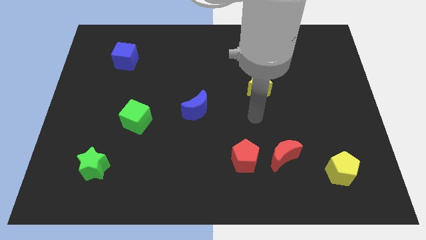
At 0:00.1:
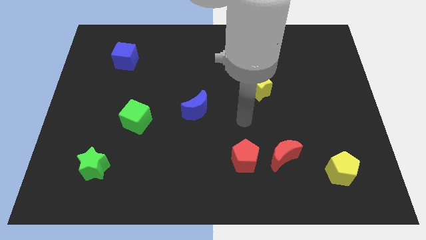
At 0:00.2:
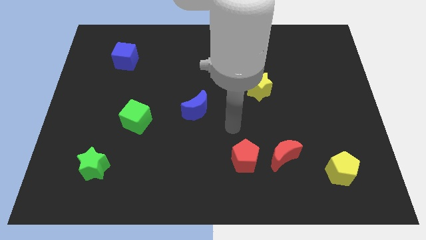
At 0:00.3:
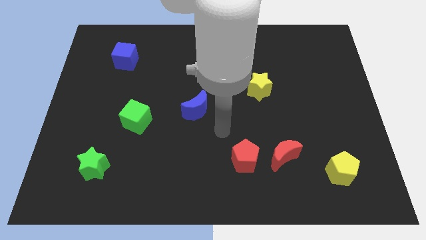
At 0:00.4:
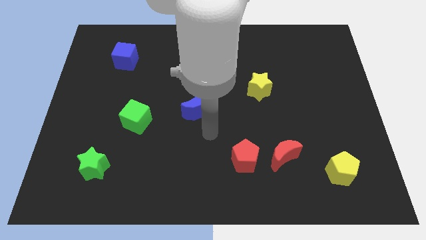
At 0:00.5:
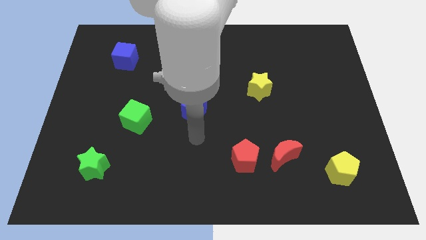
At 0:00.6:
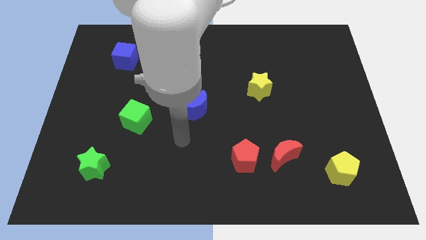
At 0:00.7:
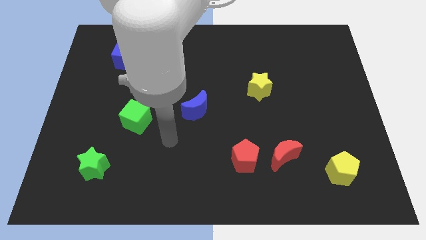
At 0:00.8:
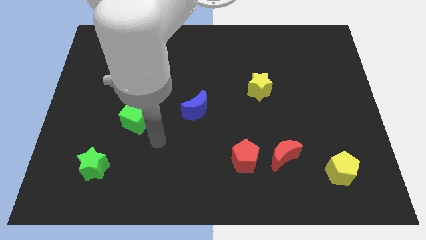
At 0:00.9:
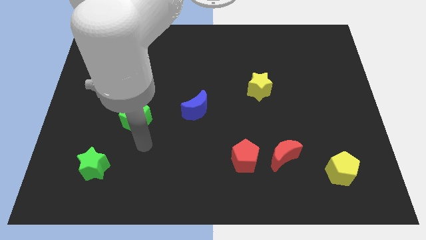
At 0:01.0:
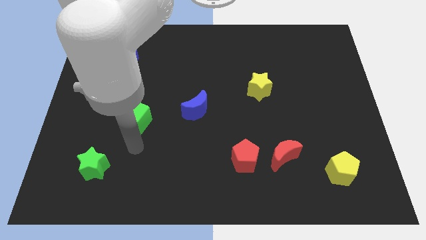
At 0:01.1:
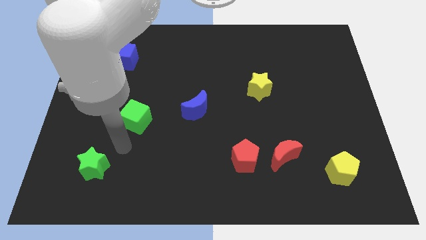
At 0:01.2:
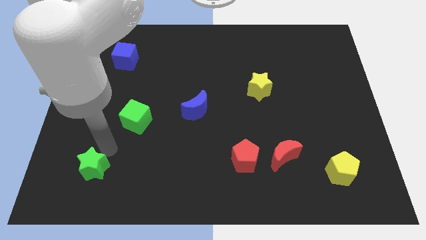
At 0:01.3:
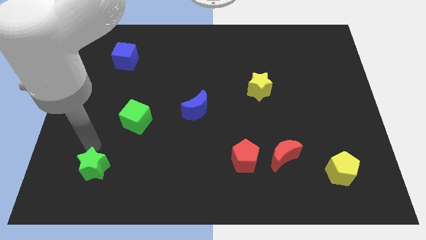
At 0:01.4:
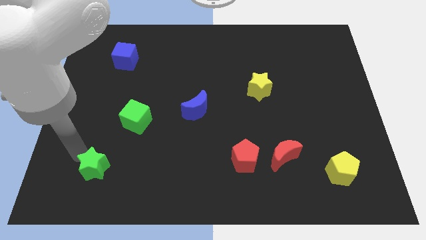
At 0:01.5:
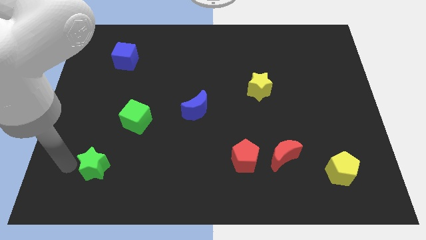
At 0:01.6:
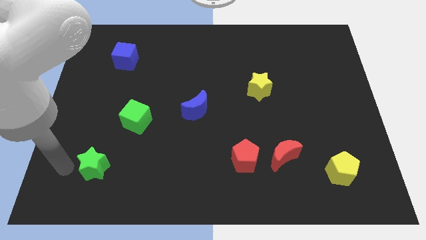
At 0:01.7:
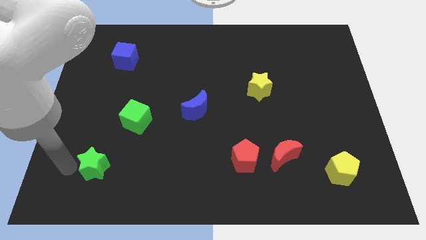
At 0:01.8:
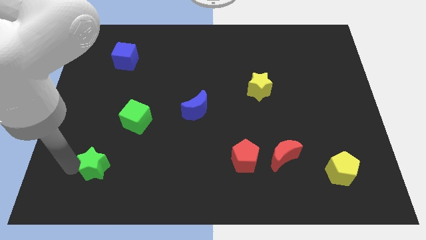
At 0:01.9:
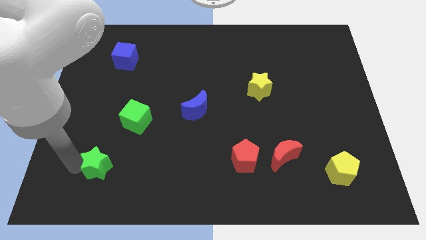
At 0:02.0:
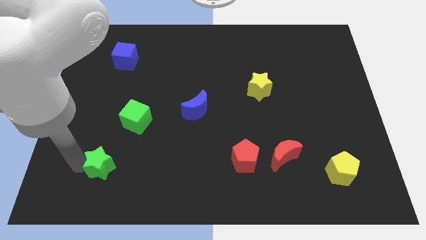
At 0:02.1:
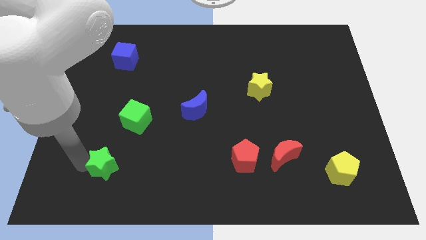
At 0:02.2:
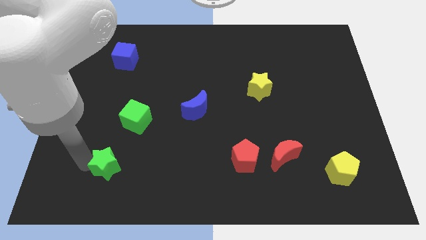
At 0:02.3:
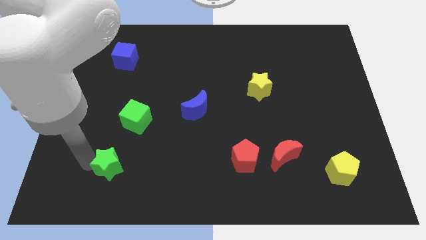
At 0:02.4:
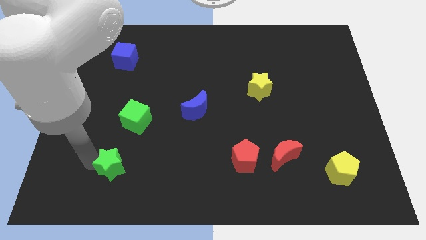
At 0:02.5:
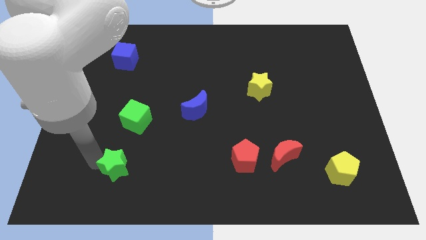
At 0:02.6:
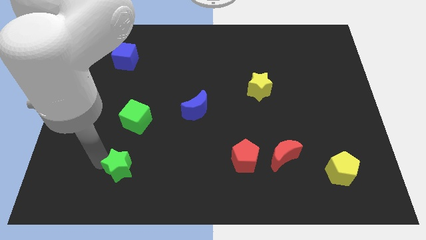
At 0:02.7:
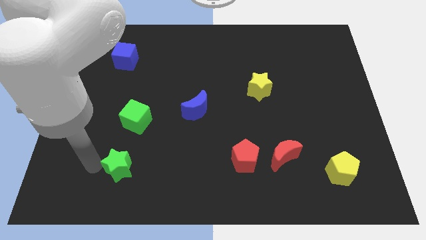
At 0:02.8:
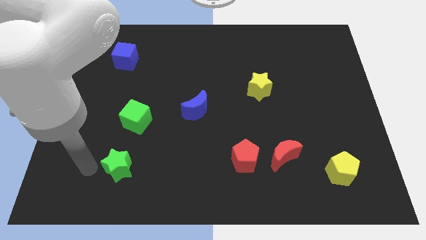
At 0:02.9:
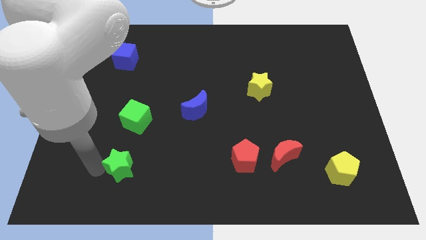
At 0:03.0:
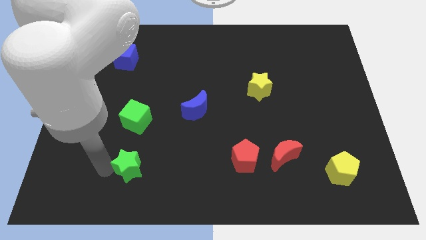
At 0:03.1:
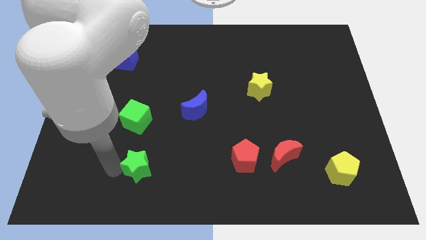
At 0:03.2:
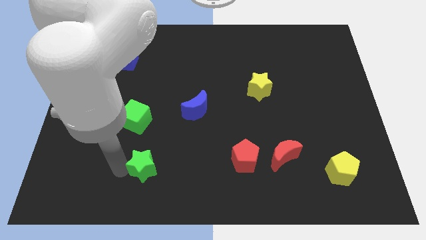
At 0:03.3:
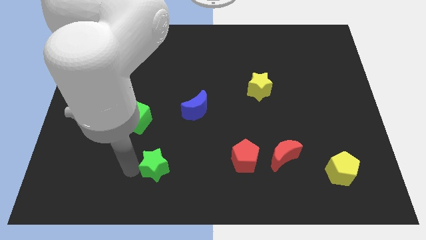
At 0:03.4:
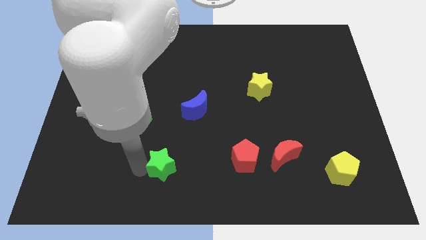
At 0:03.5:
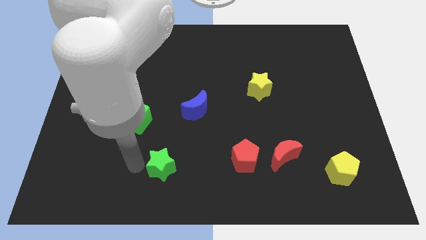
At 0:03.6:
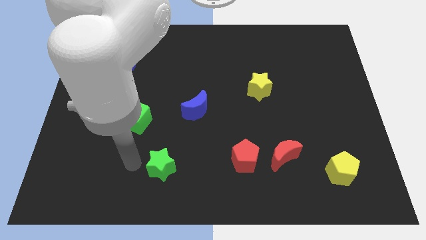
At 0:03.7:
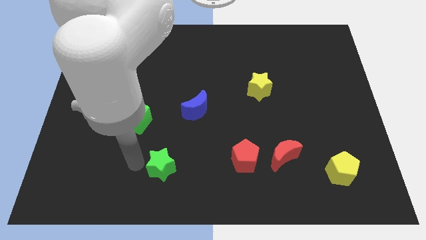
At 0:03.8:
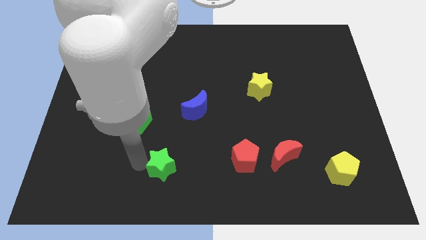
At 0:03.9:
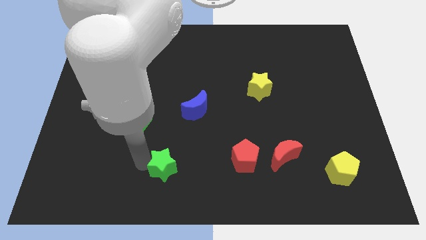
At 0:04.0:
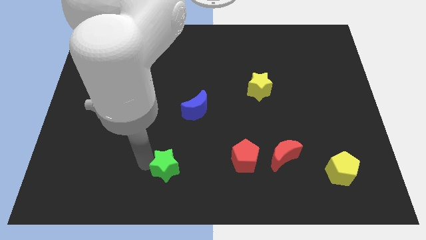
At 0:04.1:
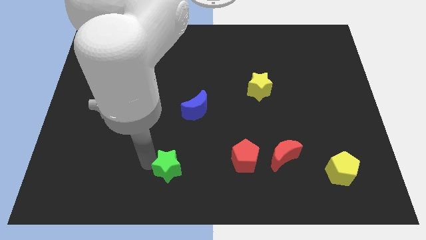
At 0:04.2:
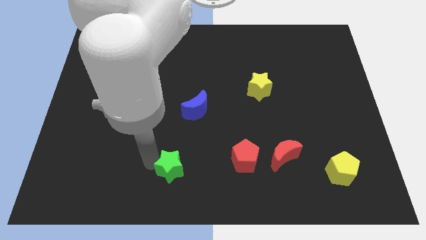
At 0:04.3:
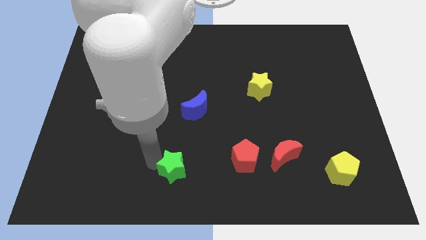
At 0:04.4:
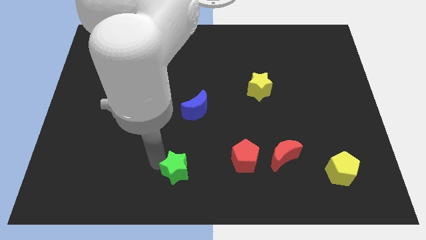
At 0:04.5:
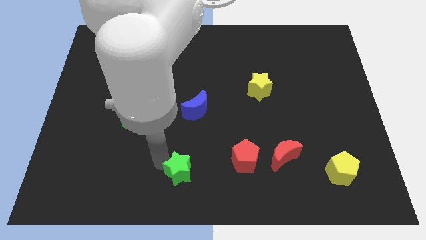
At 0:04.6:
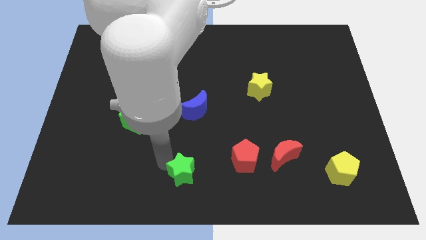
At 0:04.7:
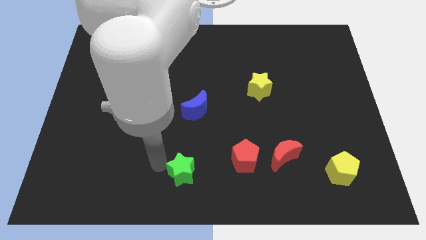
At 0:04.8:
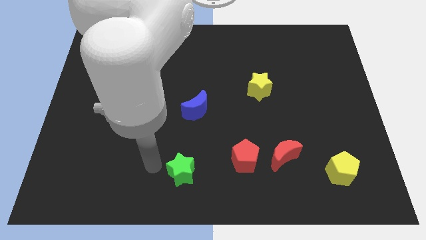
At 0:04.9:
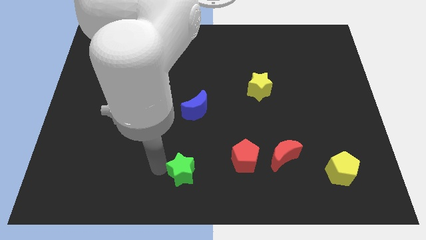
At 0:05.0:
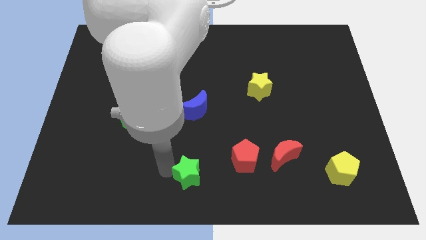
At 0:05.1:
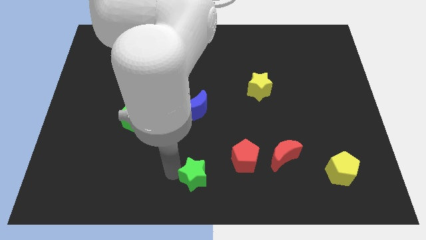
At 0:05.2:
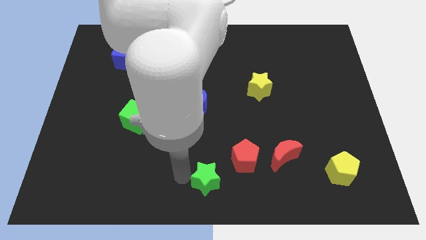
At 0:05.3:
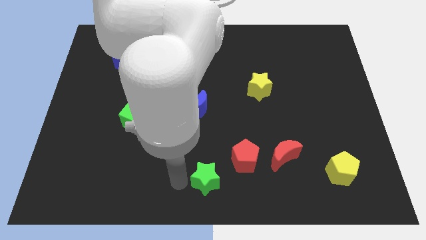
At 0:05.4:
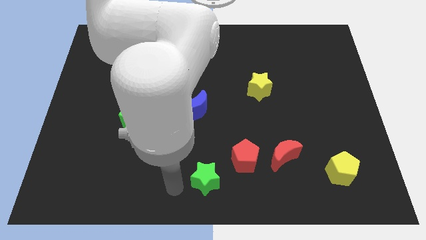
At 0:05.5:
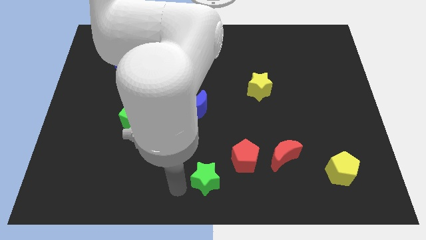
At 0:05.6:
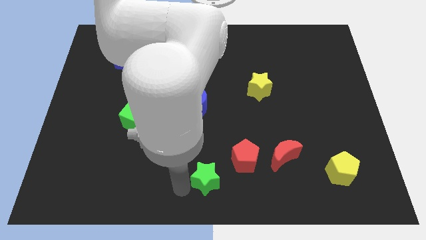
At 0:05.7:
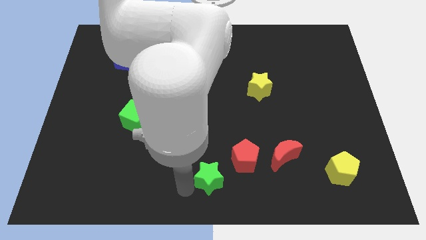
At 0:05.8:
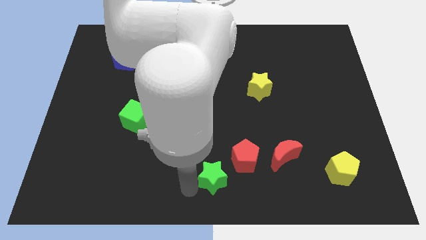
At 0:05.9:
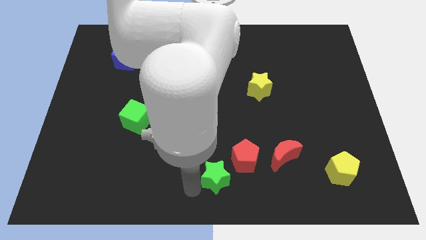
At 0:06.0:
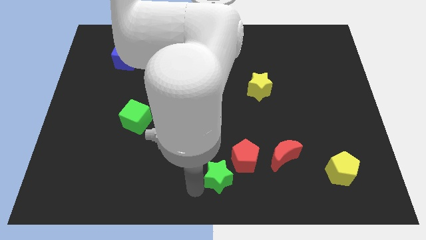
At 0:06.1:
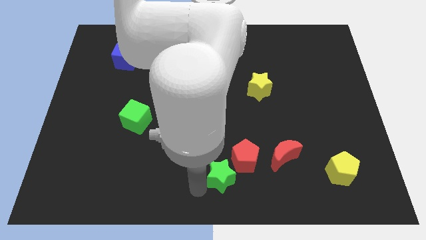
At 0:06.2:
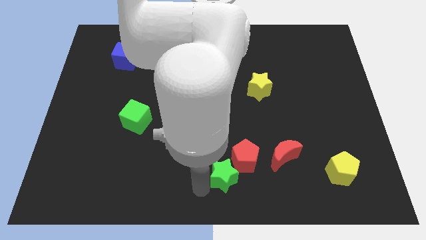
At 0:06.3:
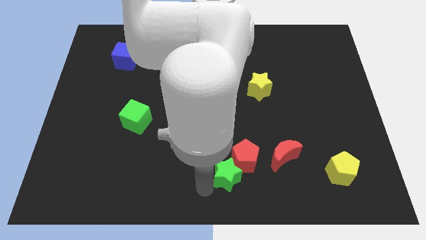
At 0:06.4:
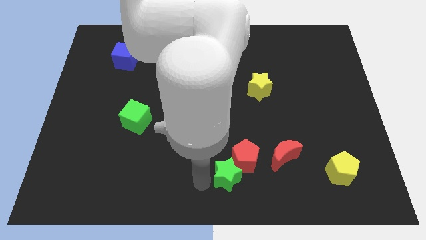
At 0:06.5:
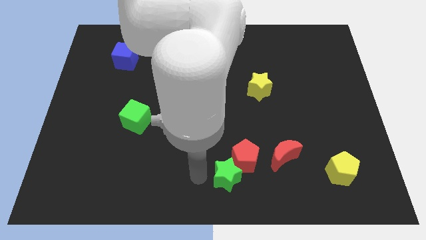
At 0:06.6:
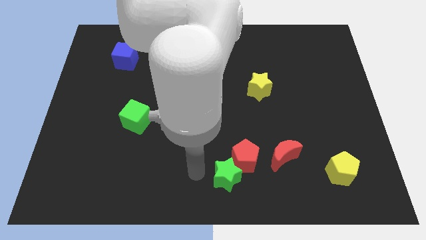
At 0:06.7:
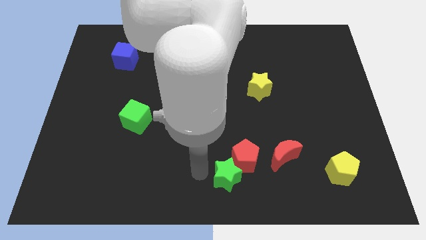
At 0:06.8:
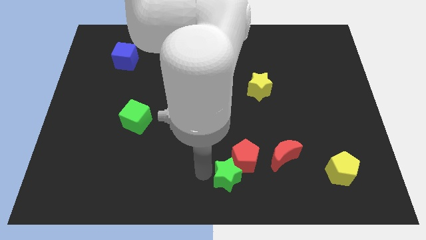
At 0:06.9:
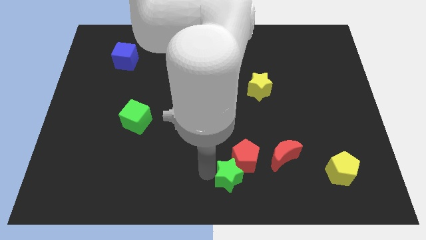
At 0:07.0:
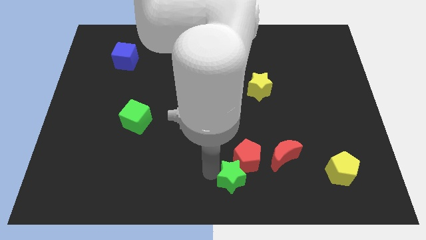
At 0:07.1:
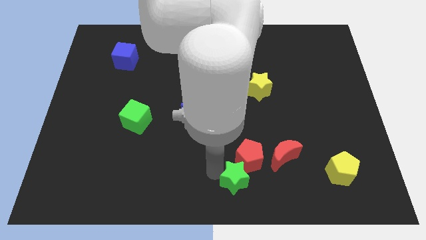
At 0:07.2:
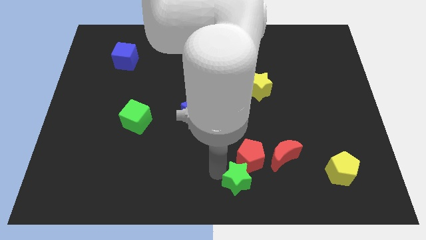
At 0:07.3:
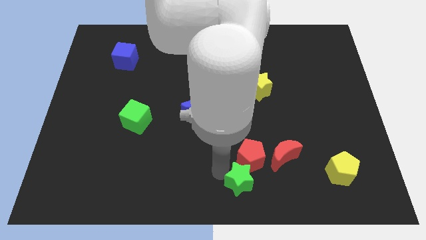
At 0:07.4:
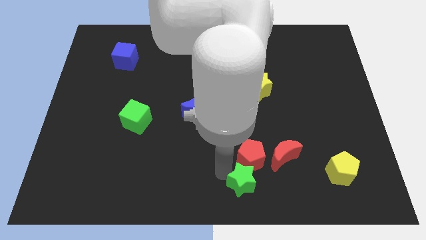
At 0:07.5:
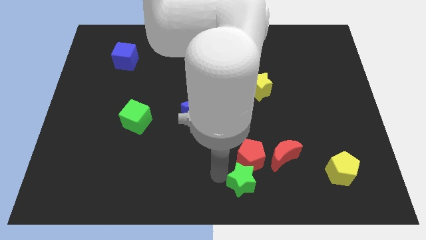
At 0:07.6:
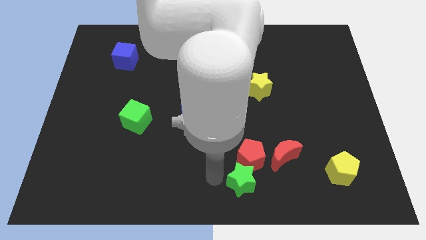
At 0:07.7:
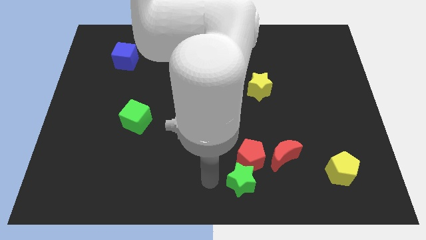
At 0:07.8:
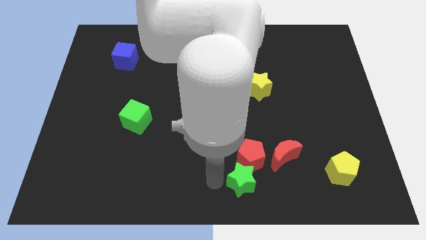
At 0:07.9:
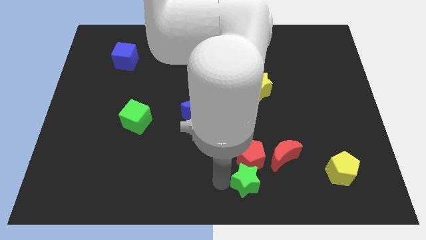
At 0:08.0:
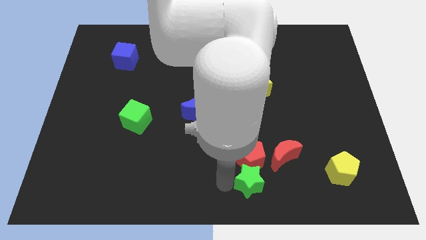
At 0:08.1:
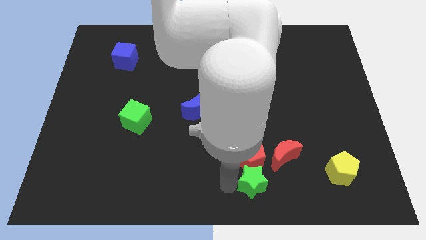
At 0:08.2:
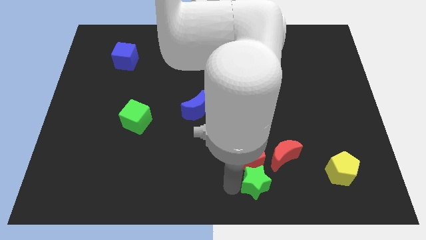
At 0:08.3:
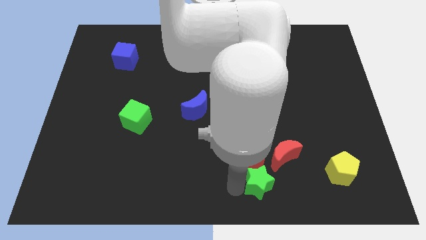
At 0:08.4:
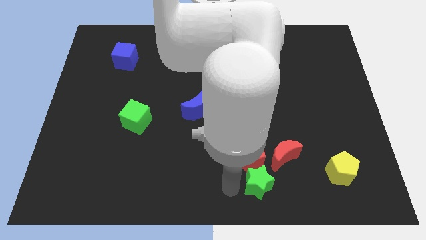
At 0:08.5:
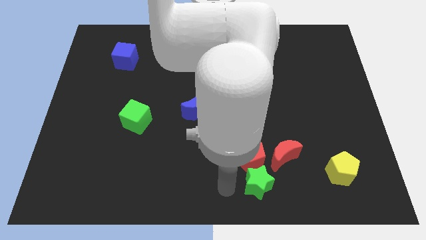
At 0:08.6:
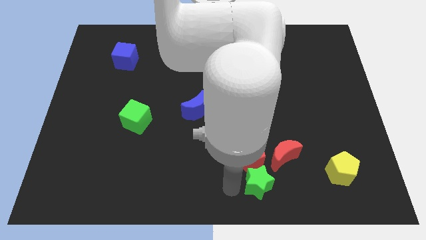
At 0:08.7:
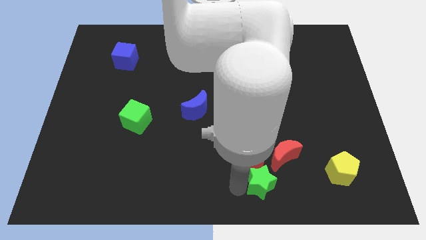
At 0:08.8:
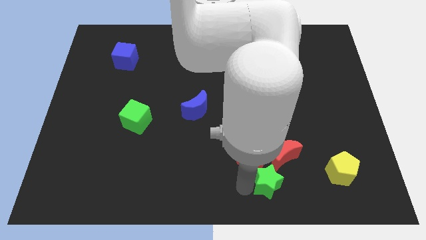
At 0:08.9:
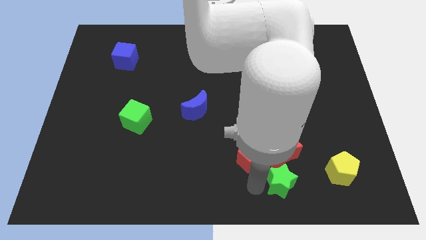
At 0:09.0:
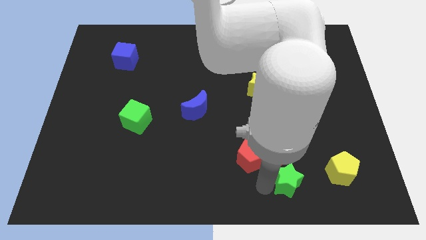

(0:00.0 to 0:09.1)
slide the green star to the bottom right side of the red moon
